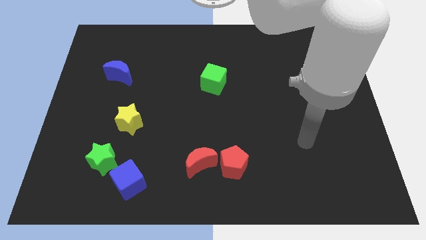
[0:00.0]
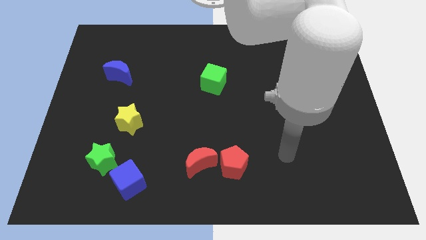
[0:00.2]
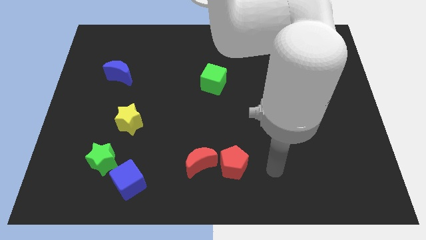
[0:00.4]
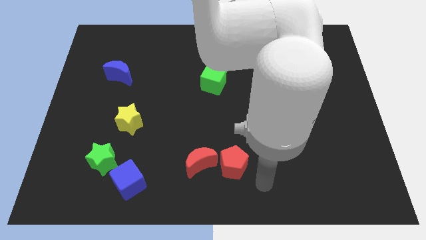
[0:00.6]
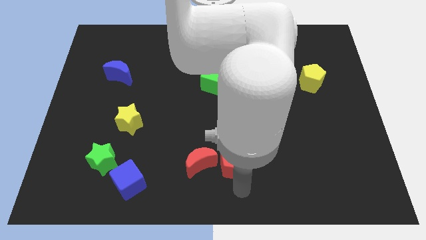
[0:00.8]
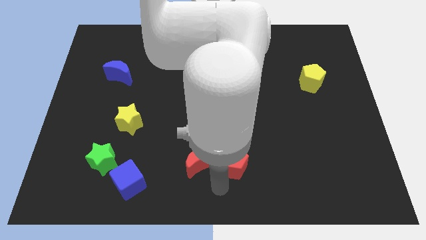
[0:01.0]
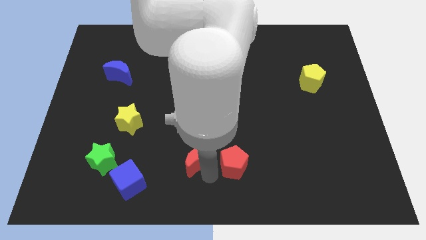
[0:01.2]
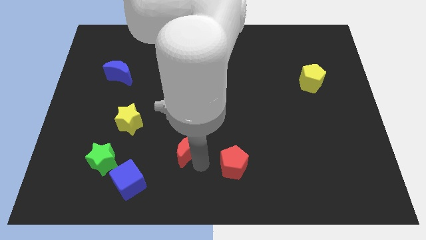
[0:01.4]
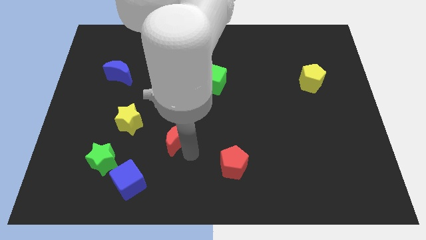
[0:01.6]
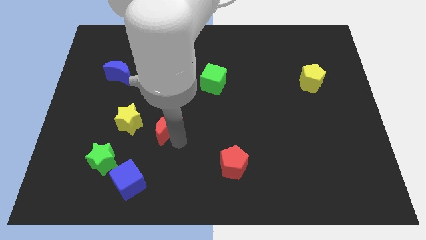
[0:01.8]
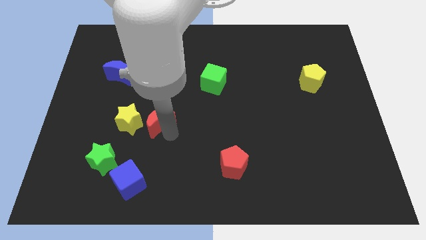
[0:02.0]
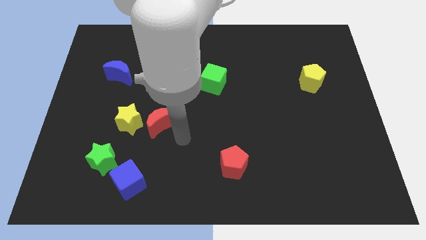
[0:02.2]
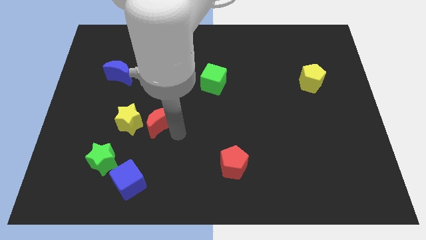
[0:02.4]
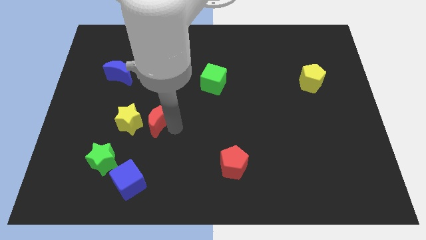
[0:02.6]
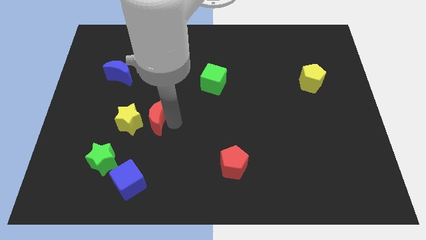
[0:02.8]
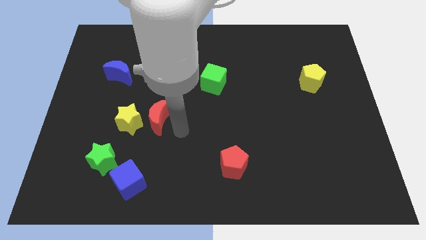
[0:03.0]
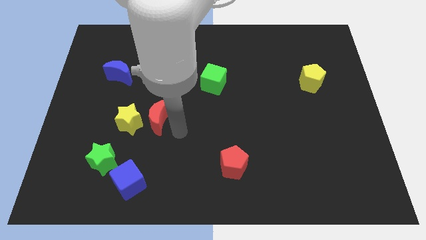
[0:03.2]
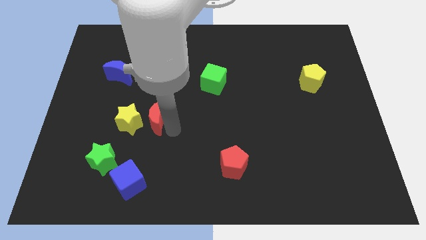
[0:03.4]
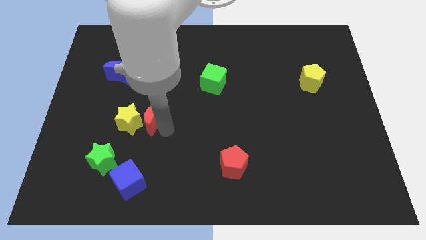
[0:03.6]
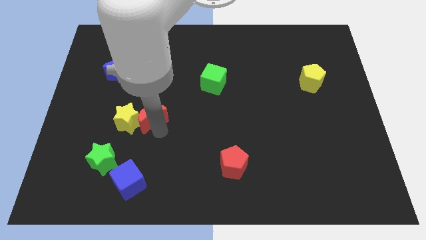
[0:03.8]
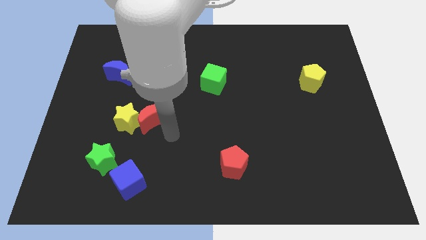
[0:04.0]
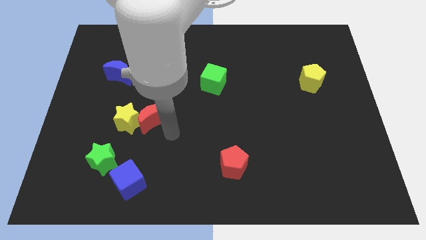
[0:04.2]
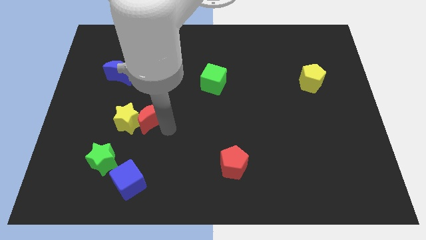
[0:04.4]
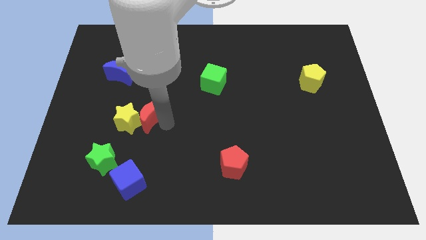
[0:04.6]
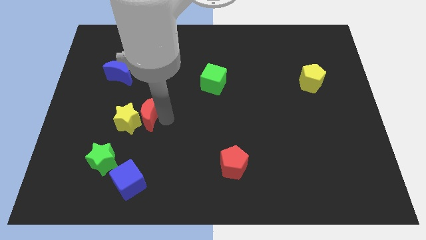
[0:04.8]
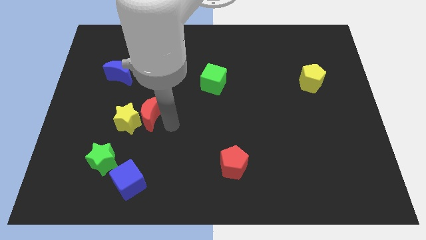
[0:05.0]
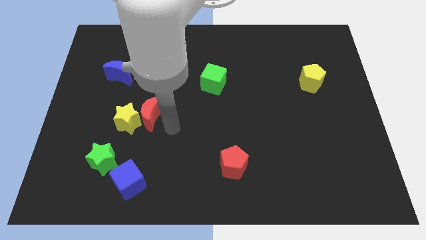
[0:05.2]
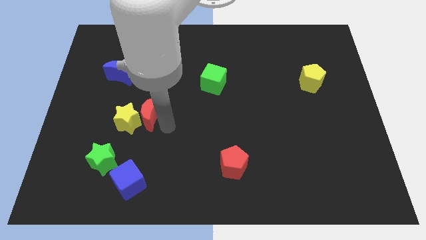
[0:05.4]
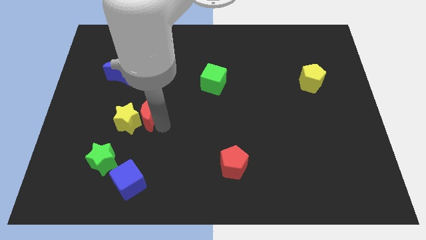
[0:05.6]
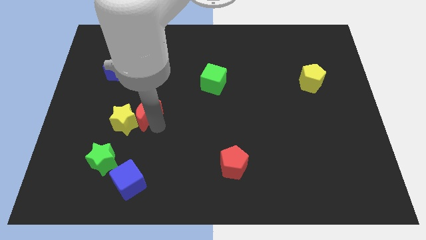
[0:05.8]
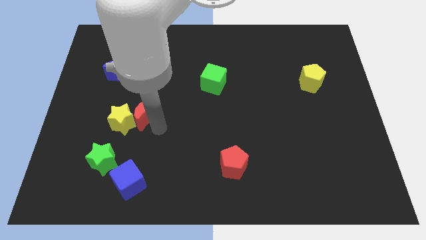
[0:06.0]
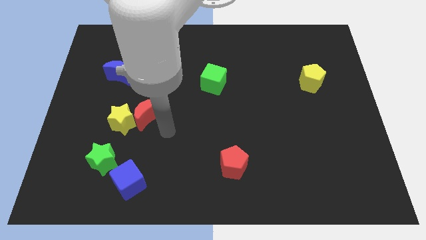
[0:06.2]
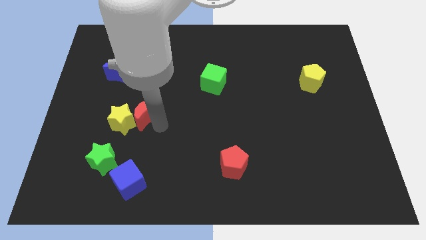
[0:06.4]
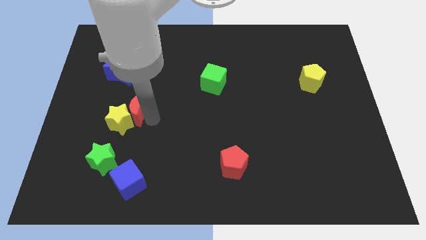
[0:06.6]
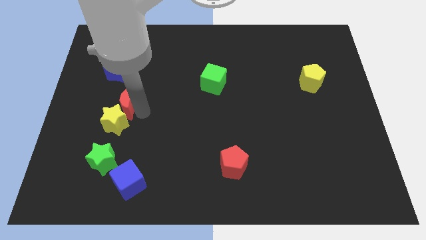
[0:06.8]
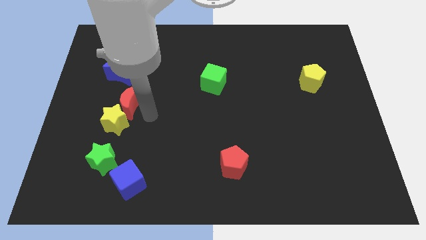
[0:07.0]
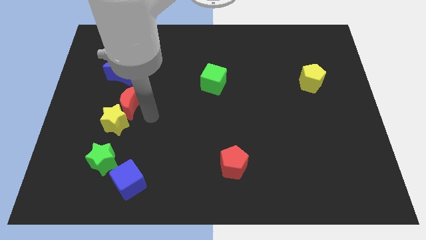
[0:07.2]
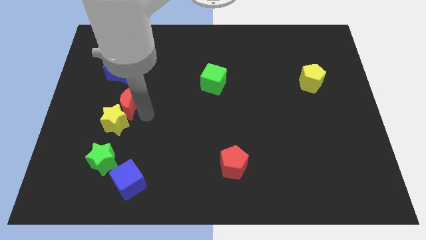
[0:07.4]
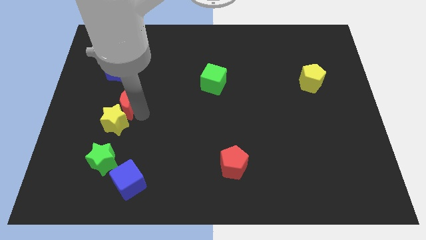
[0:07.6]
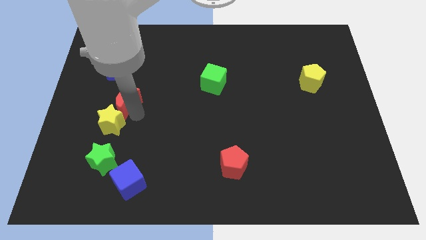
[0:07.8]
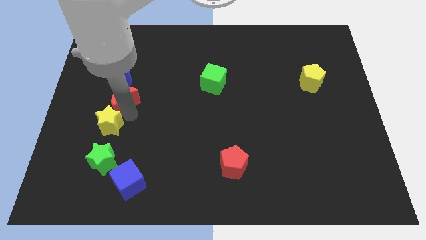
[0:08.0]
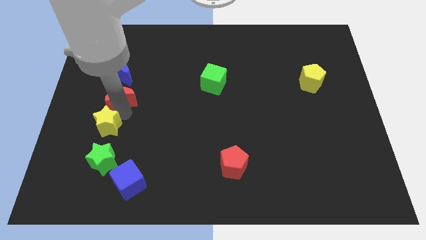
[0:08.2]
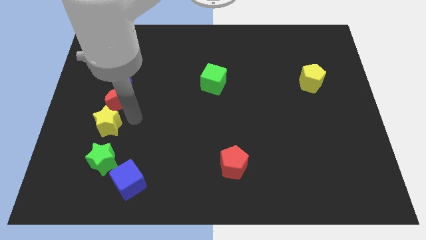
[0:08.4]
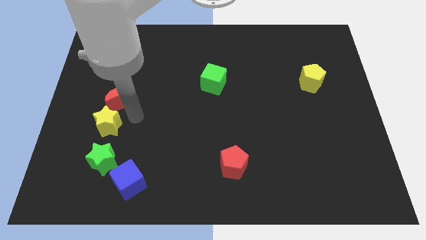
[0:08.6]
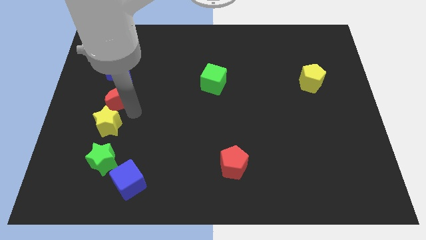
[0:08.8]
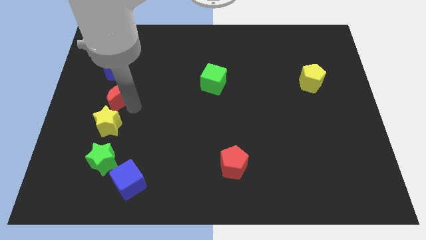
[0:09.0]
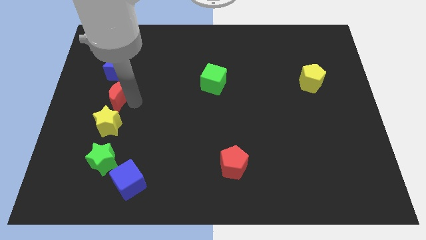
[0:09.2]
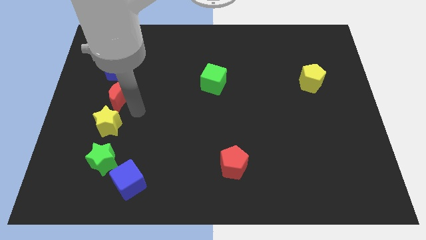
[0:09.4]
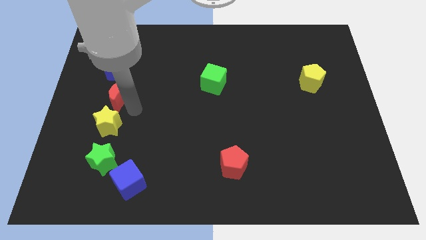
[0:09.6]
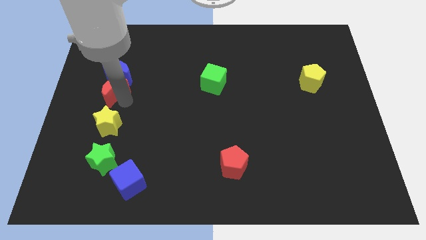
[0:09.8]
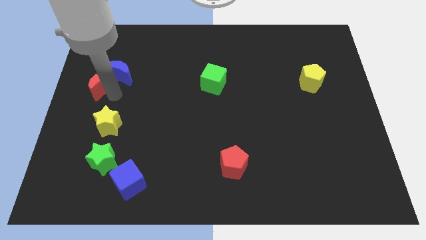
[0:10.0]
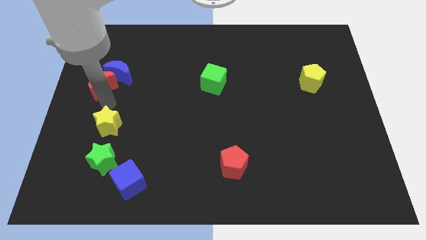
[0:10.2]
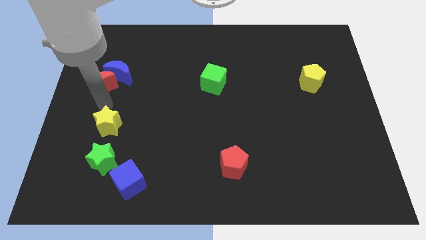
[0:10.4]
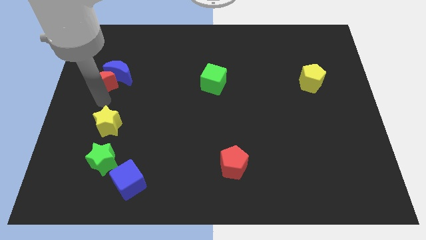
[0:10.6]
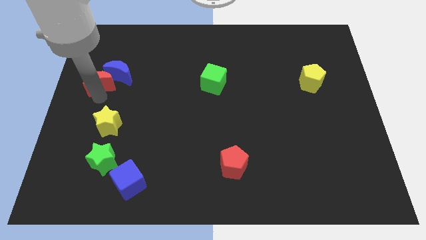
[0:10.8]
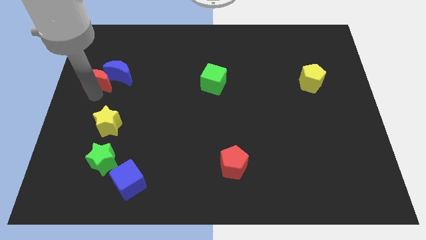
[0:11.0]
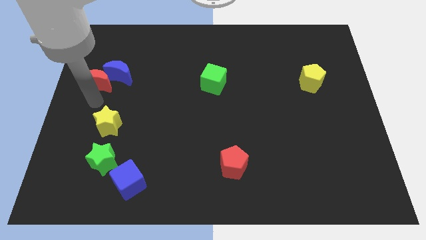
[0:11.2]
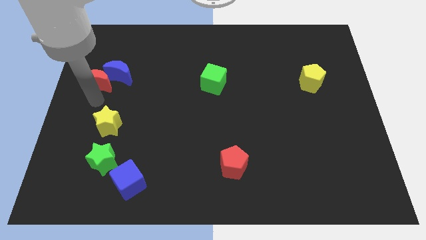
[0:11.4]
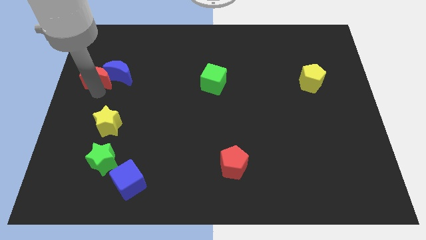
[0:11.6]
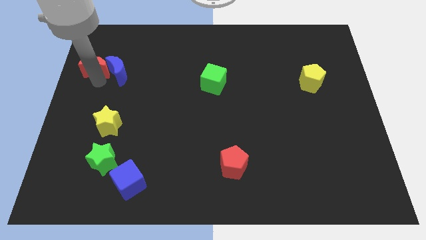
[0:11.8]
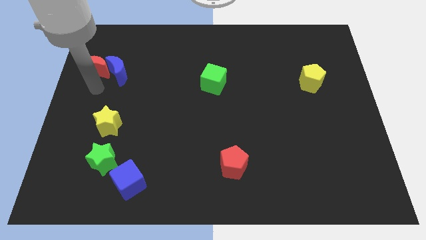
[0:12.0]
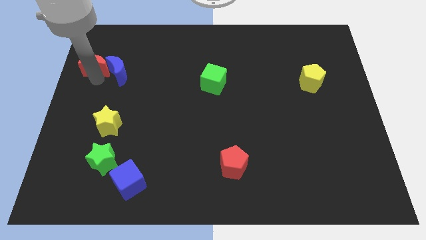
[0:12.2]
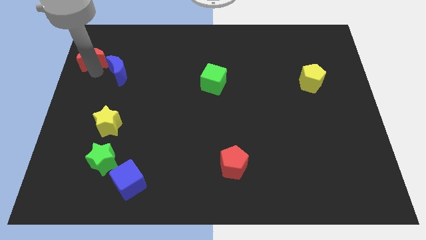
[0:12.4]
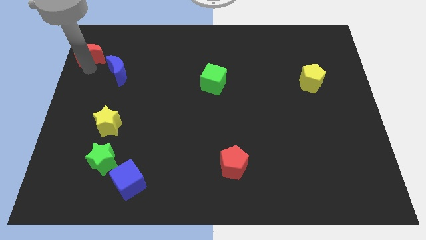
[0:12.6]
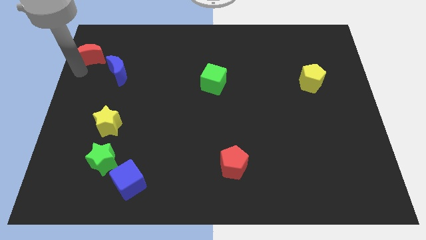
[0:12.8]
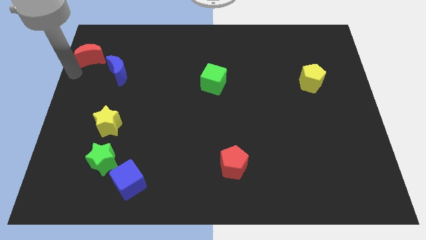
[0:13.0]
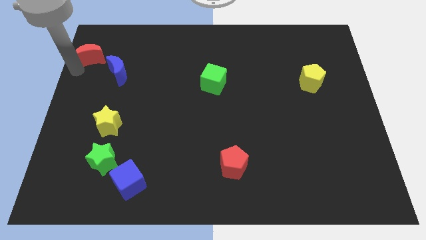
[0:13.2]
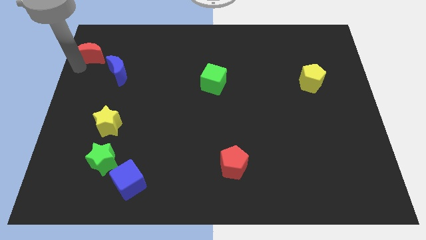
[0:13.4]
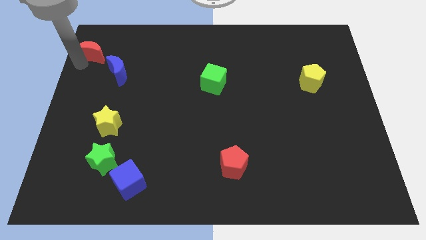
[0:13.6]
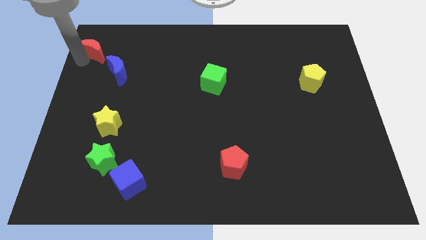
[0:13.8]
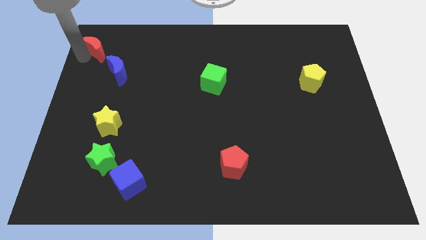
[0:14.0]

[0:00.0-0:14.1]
put the red moon to the top left of the board
